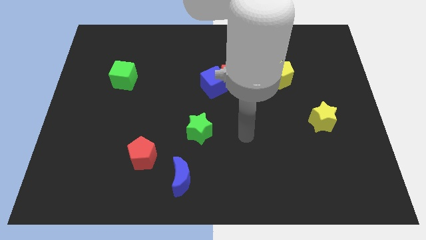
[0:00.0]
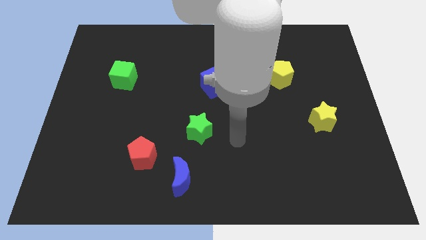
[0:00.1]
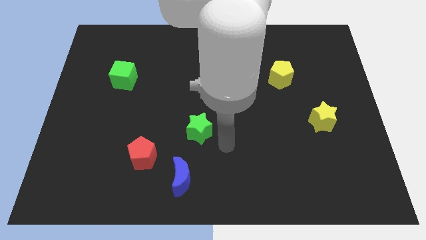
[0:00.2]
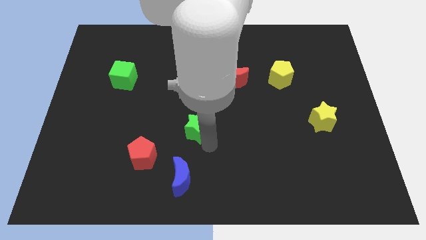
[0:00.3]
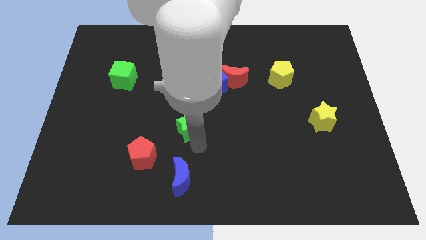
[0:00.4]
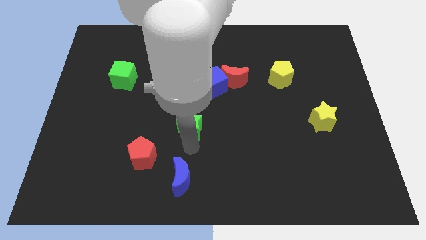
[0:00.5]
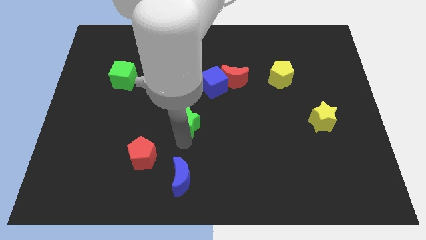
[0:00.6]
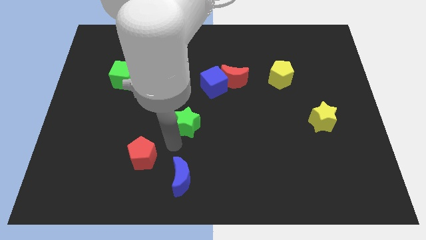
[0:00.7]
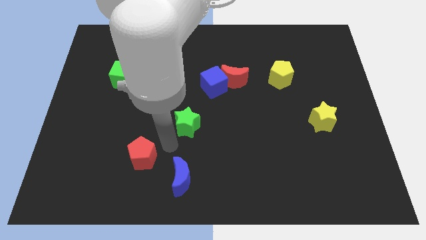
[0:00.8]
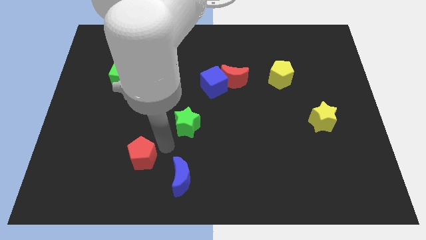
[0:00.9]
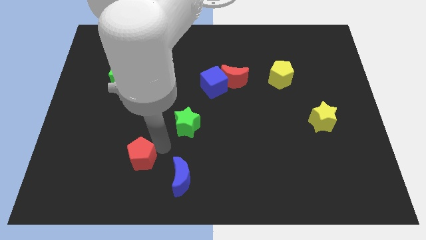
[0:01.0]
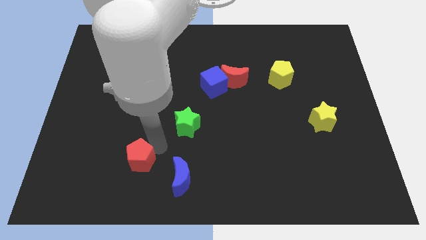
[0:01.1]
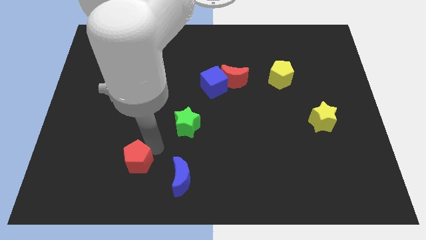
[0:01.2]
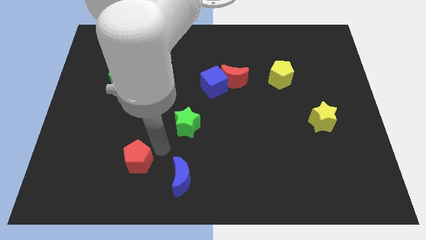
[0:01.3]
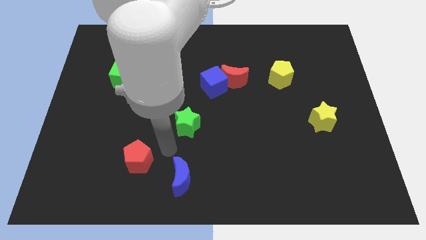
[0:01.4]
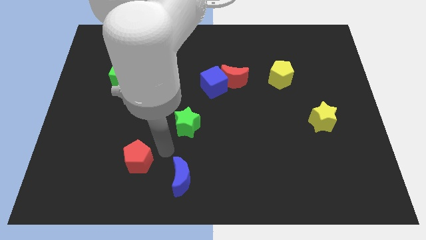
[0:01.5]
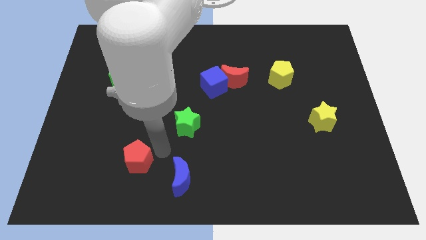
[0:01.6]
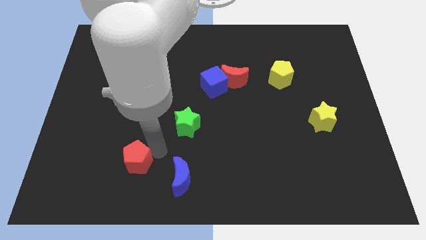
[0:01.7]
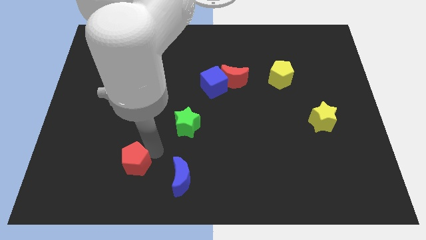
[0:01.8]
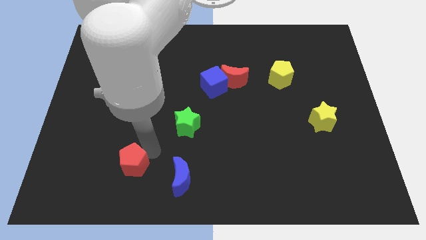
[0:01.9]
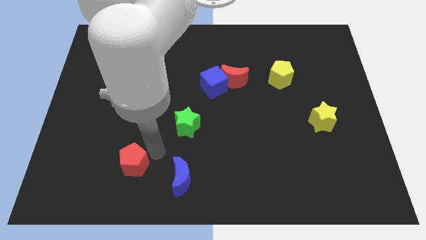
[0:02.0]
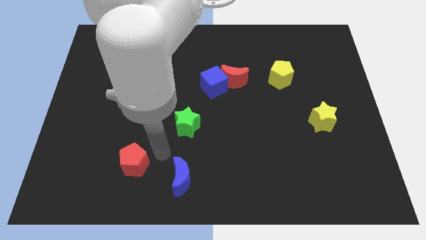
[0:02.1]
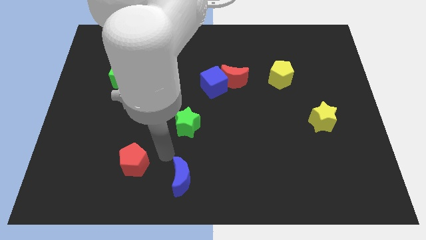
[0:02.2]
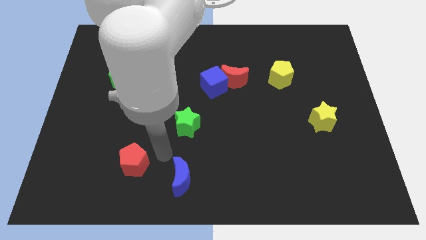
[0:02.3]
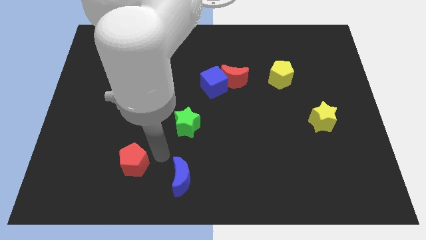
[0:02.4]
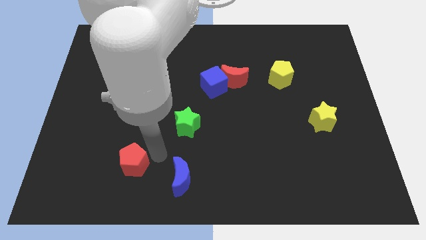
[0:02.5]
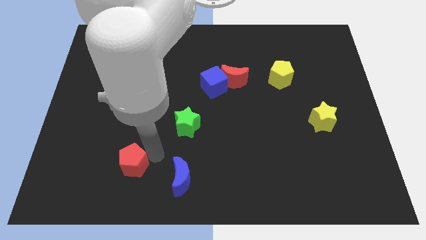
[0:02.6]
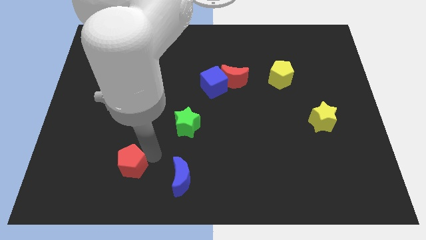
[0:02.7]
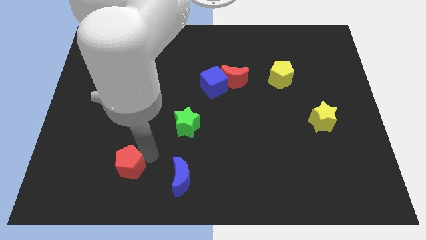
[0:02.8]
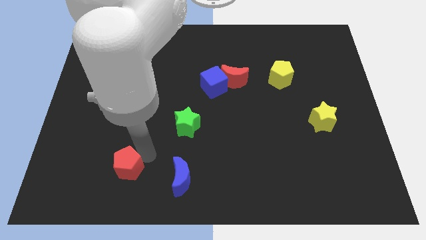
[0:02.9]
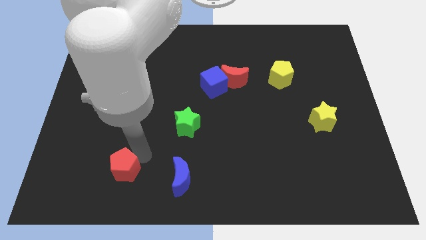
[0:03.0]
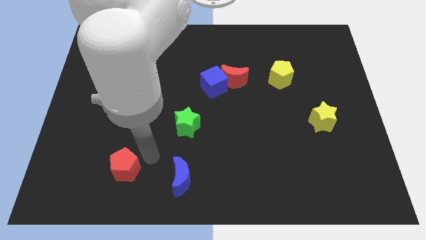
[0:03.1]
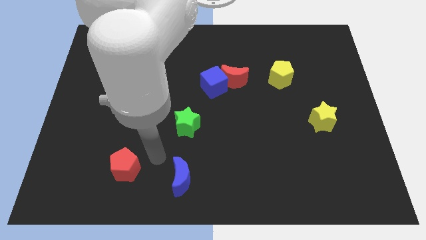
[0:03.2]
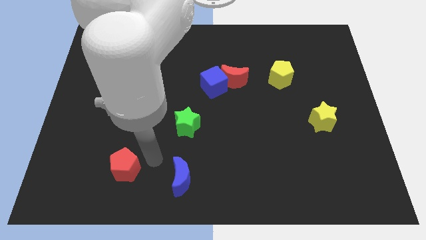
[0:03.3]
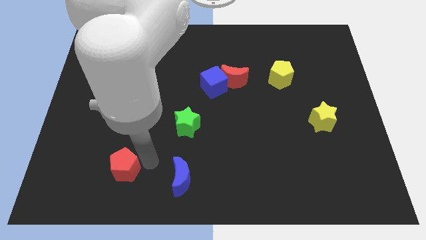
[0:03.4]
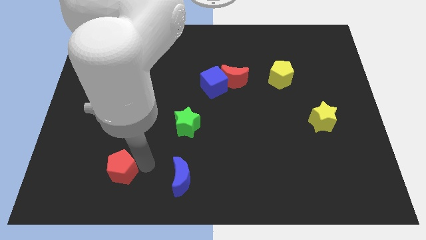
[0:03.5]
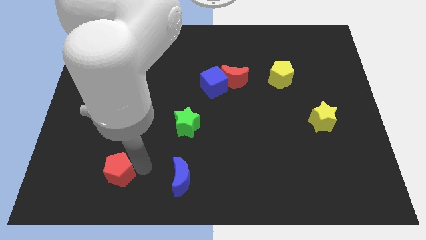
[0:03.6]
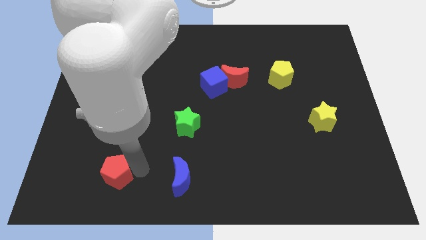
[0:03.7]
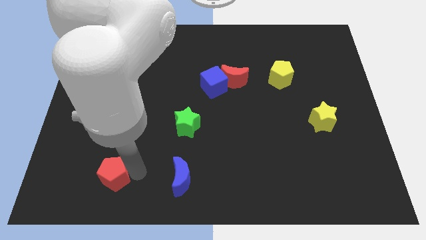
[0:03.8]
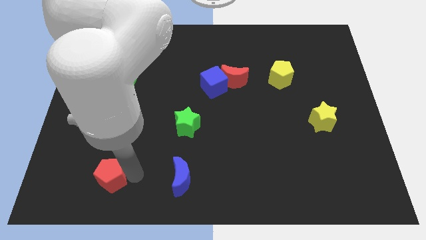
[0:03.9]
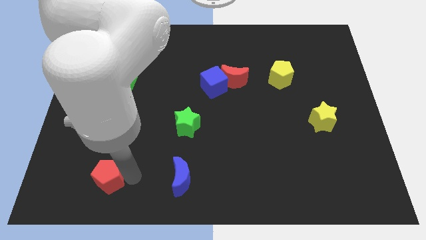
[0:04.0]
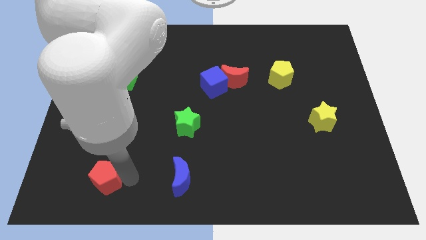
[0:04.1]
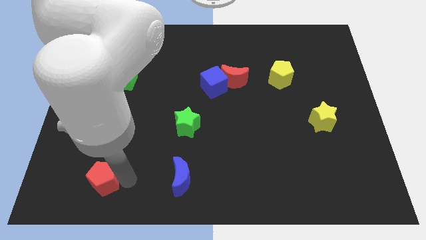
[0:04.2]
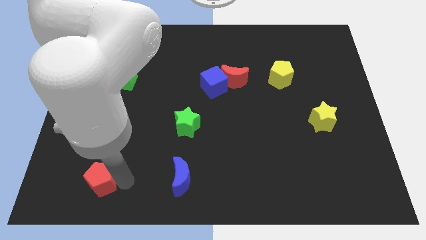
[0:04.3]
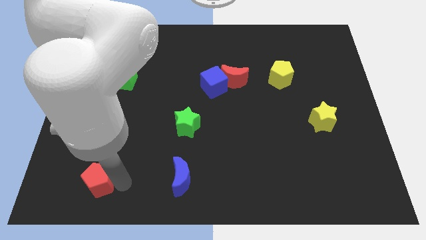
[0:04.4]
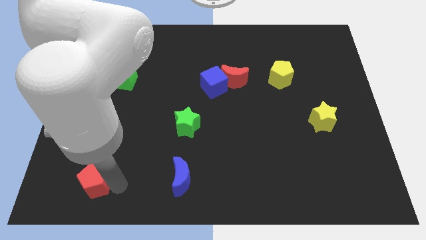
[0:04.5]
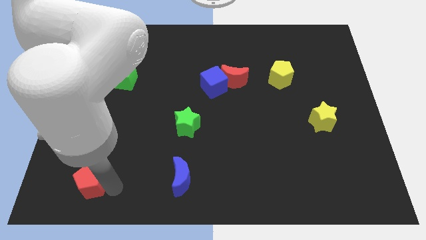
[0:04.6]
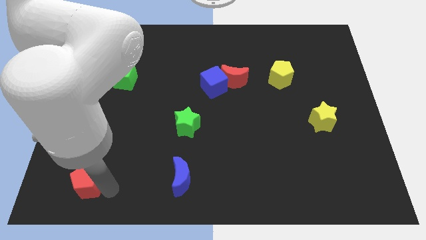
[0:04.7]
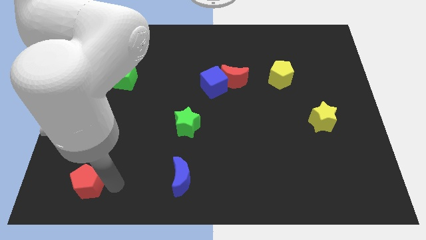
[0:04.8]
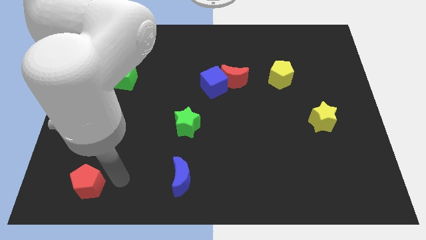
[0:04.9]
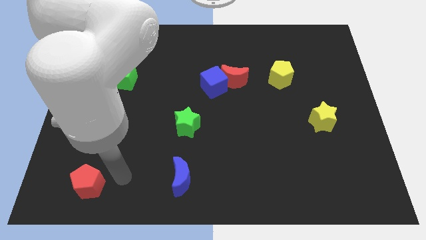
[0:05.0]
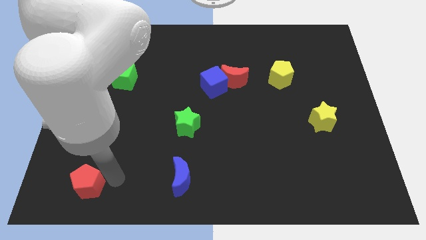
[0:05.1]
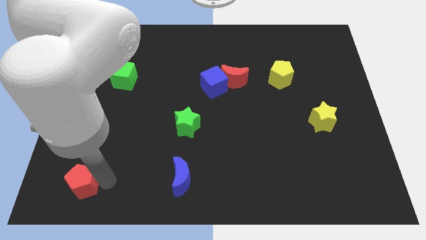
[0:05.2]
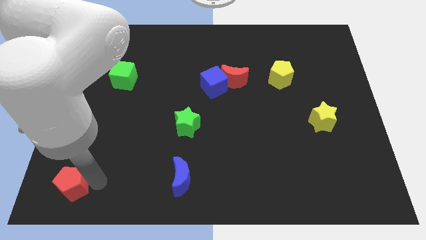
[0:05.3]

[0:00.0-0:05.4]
put the red pentagon to the lower left corner

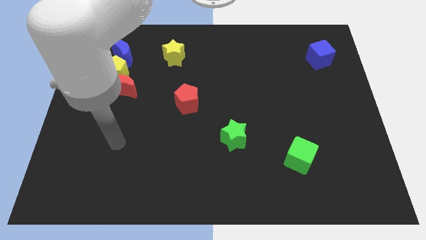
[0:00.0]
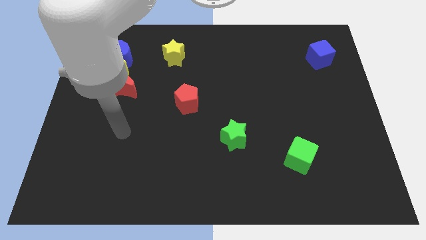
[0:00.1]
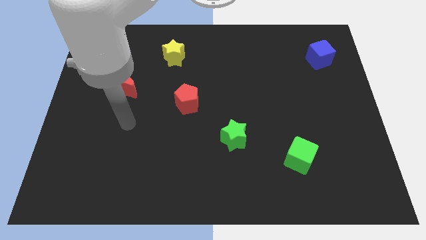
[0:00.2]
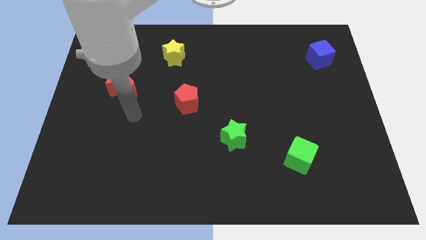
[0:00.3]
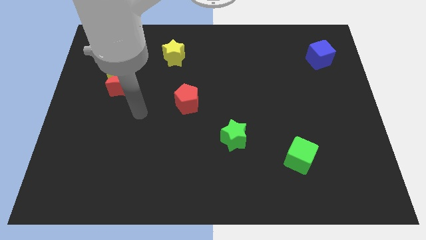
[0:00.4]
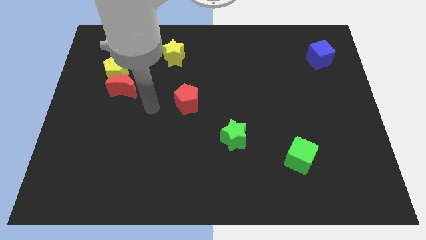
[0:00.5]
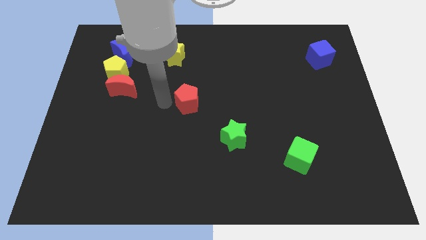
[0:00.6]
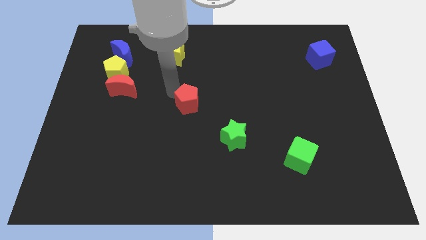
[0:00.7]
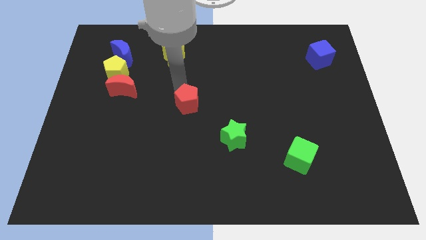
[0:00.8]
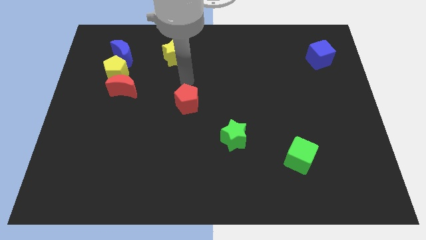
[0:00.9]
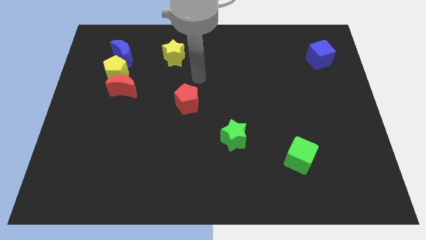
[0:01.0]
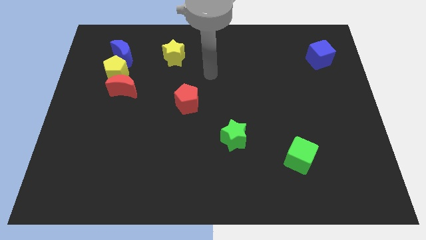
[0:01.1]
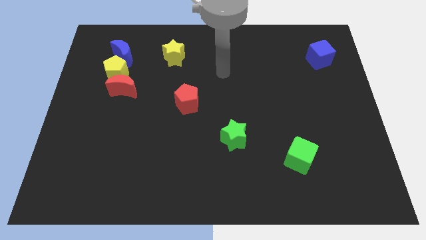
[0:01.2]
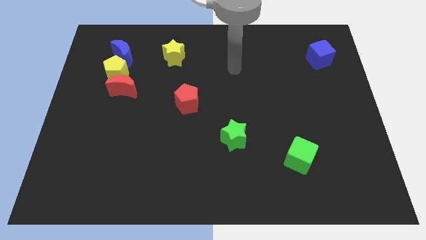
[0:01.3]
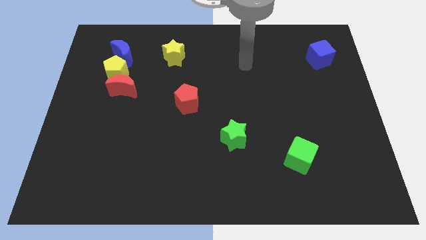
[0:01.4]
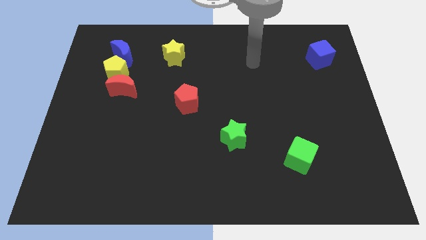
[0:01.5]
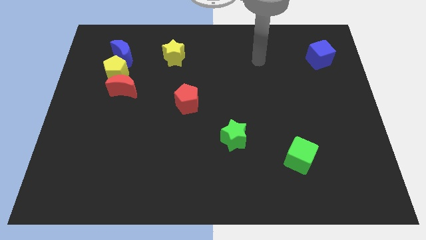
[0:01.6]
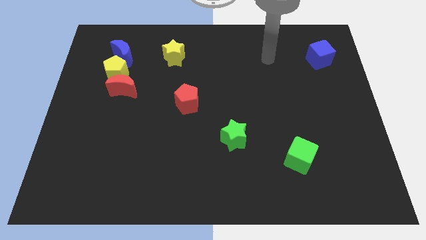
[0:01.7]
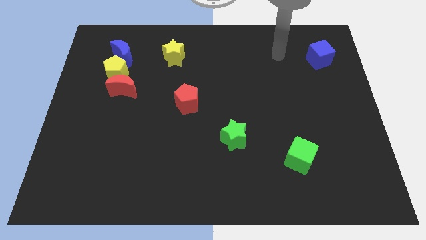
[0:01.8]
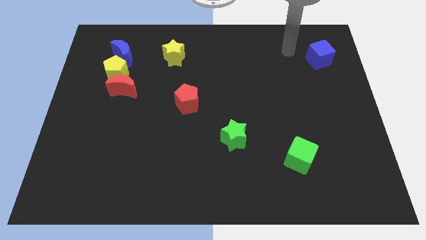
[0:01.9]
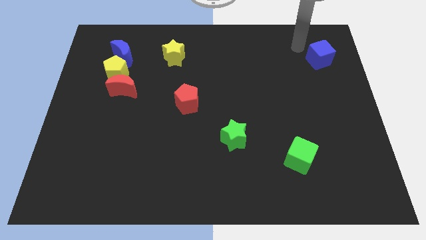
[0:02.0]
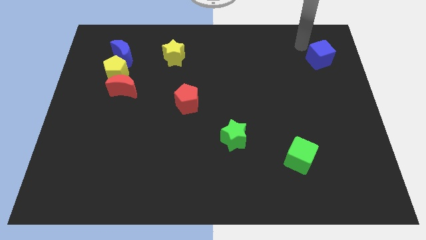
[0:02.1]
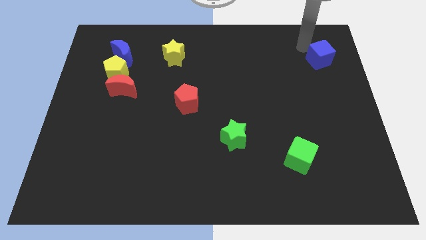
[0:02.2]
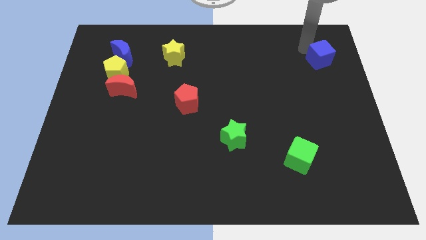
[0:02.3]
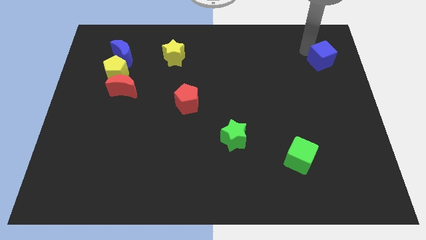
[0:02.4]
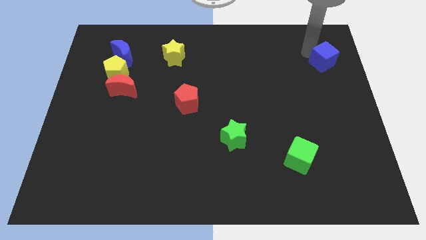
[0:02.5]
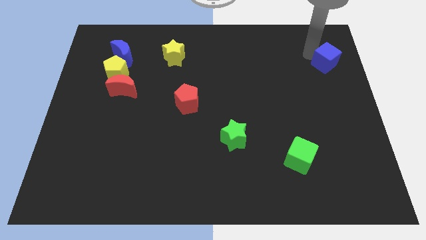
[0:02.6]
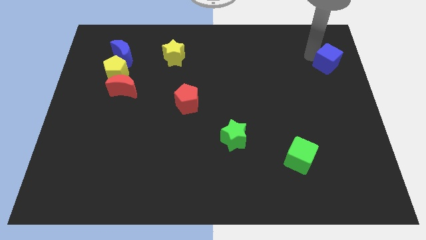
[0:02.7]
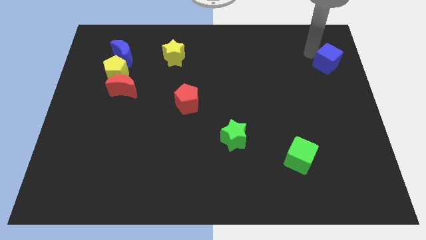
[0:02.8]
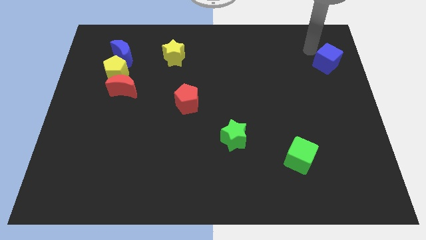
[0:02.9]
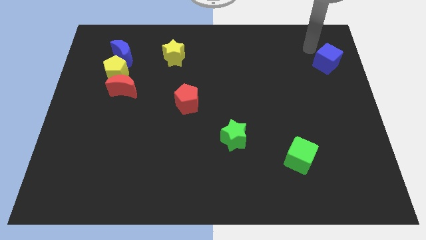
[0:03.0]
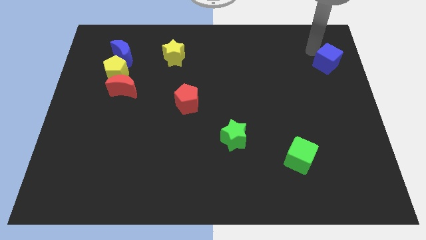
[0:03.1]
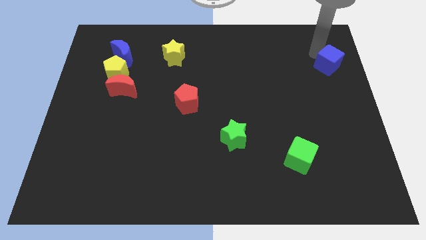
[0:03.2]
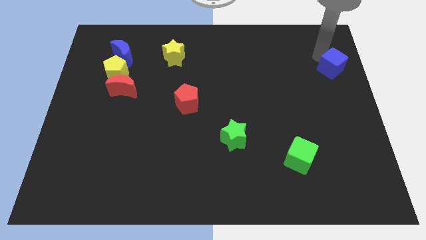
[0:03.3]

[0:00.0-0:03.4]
put the blue cube to the right side of the board
